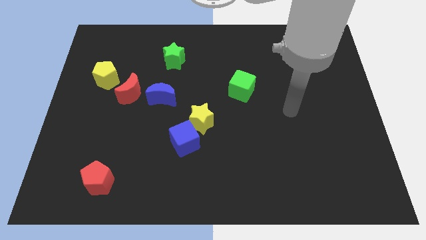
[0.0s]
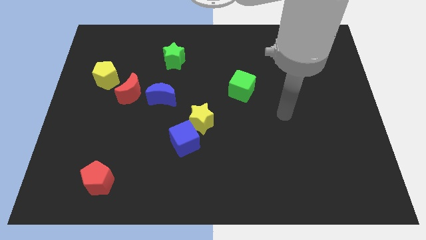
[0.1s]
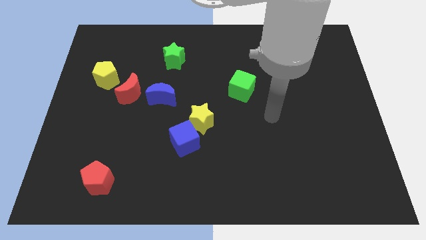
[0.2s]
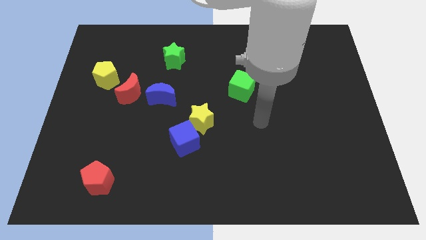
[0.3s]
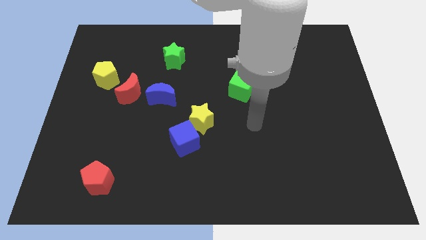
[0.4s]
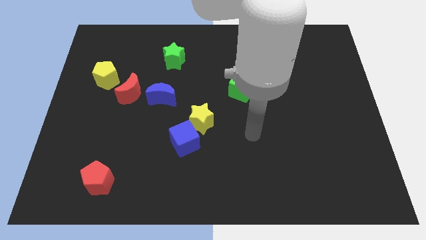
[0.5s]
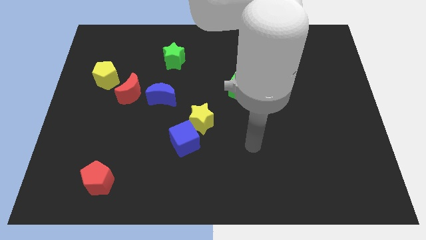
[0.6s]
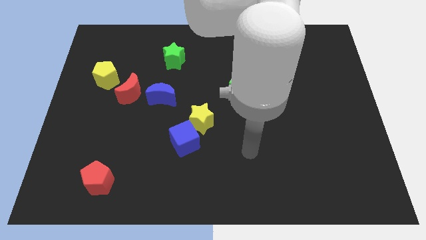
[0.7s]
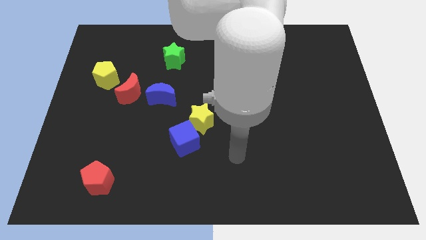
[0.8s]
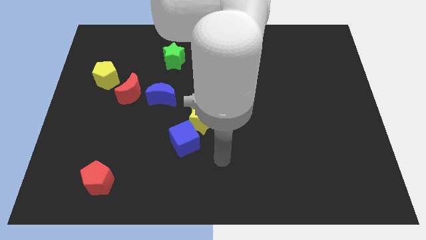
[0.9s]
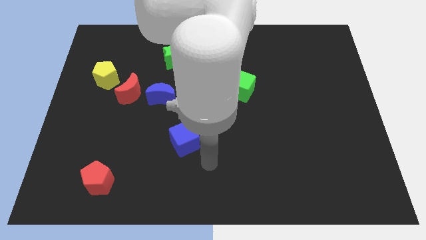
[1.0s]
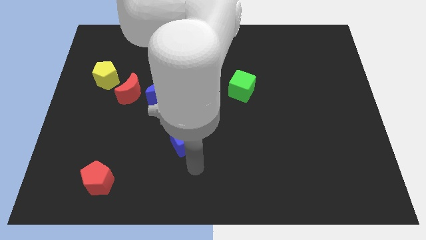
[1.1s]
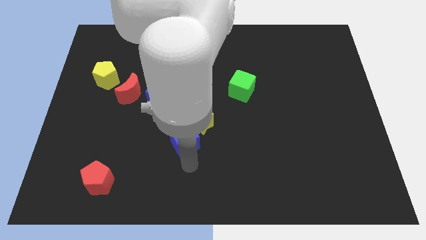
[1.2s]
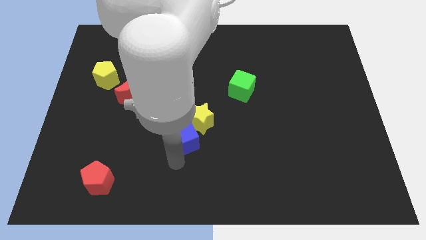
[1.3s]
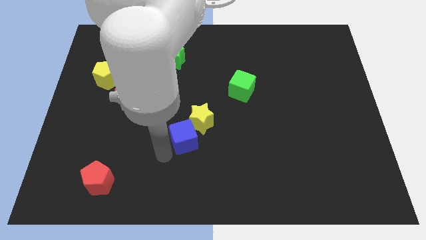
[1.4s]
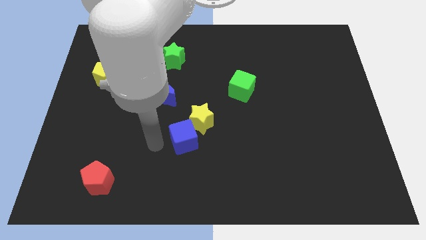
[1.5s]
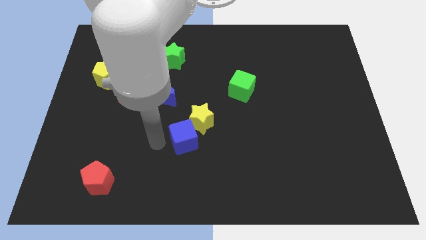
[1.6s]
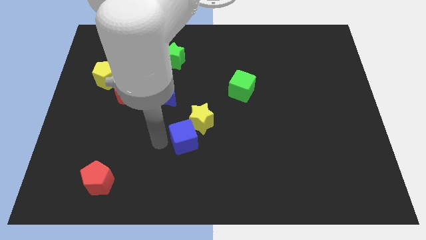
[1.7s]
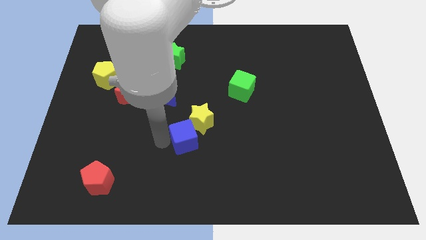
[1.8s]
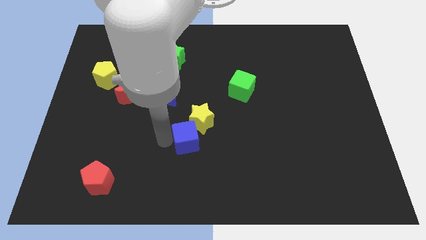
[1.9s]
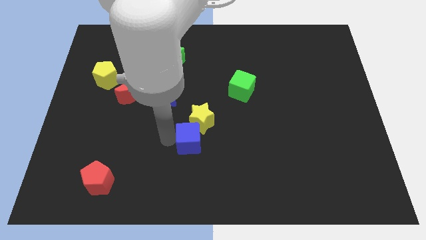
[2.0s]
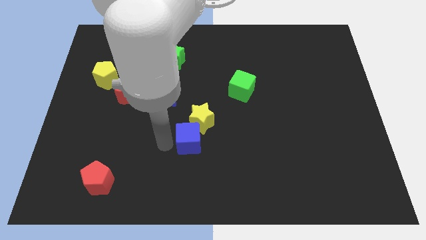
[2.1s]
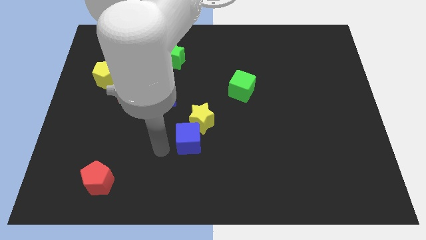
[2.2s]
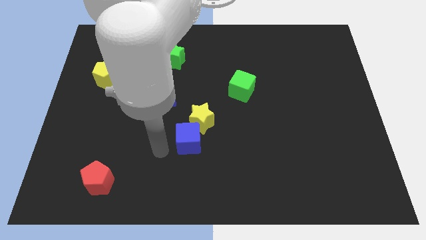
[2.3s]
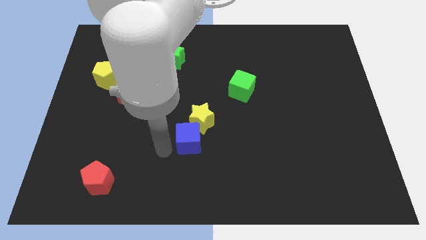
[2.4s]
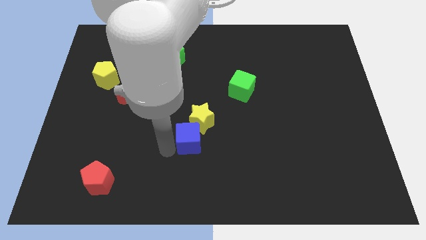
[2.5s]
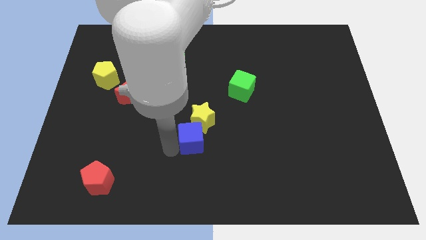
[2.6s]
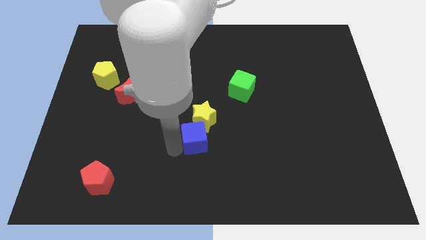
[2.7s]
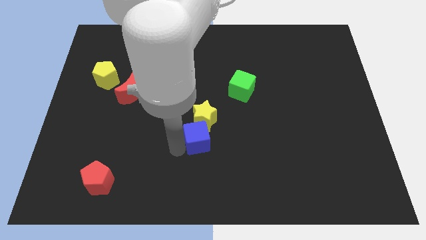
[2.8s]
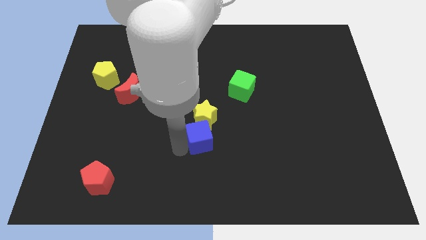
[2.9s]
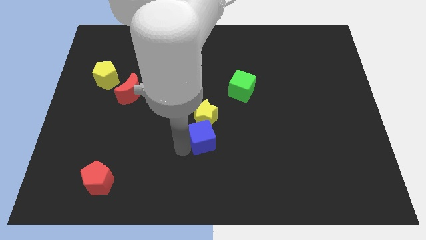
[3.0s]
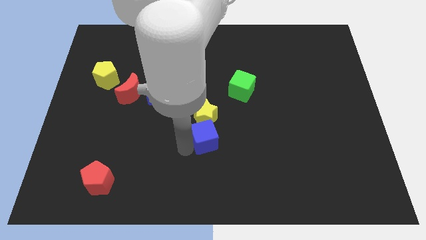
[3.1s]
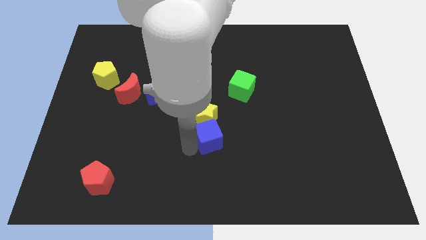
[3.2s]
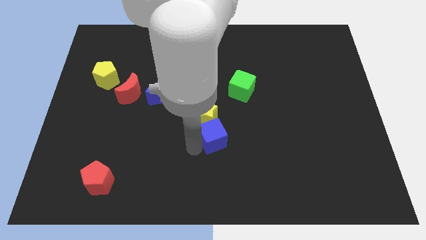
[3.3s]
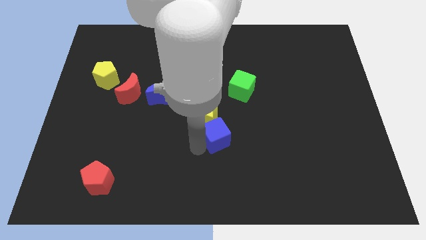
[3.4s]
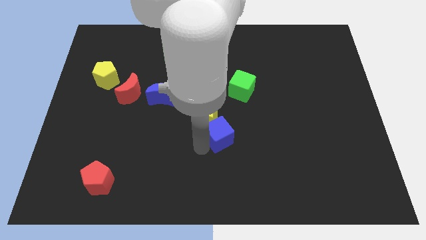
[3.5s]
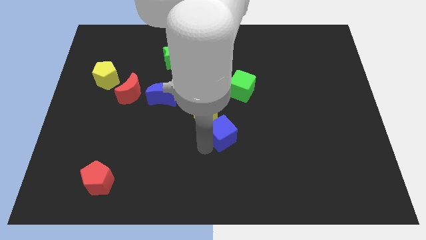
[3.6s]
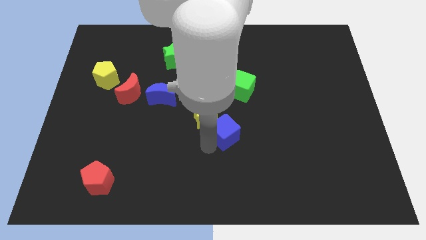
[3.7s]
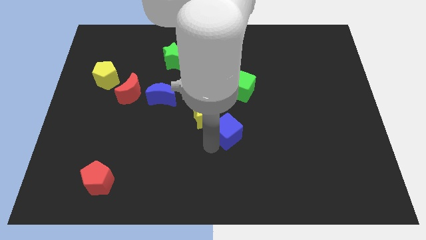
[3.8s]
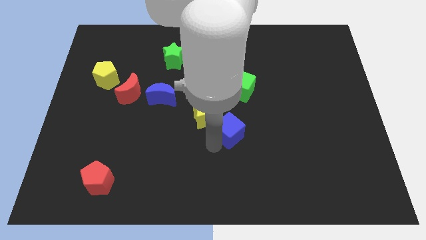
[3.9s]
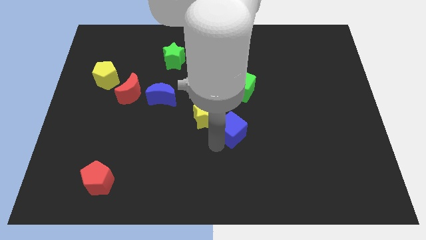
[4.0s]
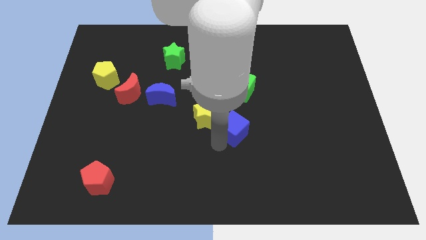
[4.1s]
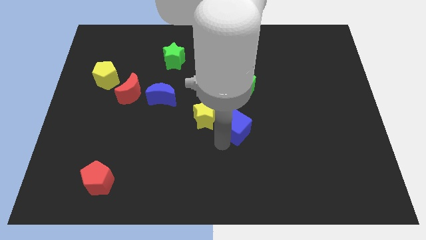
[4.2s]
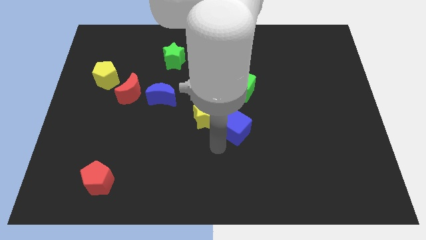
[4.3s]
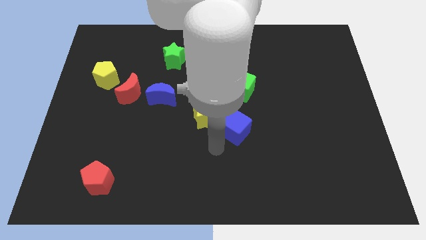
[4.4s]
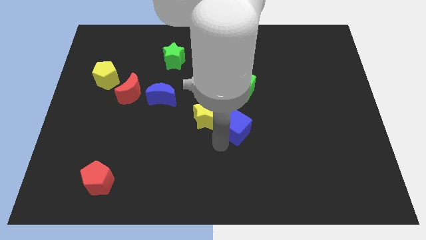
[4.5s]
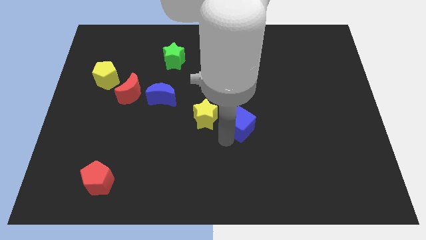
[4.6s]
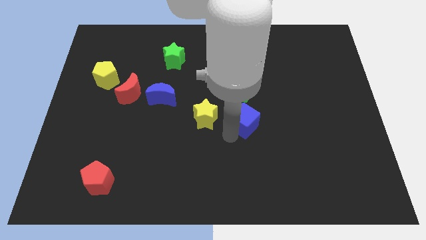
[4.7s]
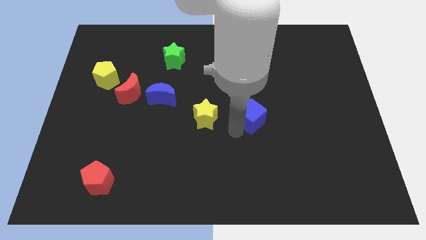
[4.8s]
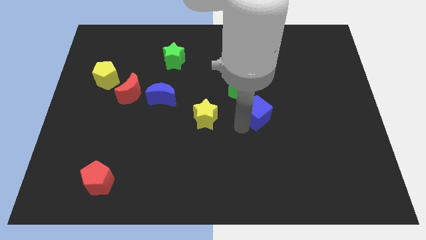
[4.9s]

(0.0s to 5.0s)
slide the blue cube diagonally down and to the right of the green cube

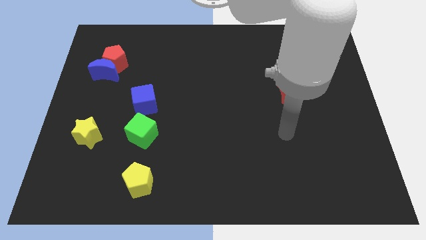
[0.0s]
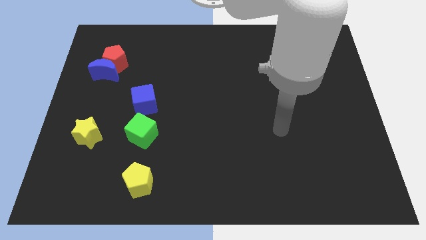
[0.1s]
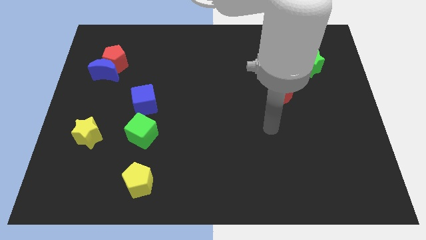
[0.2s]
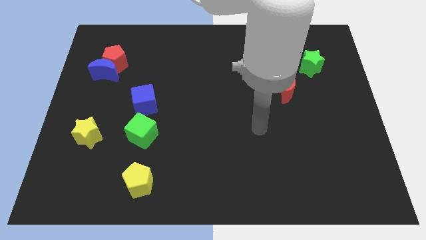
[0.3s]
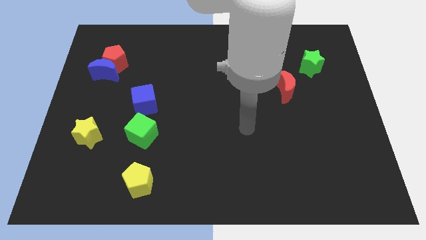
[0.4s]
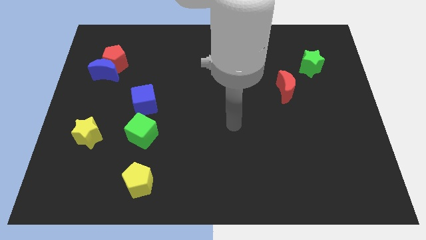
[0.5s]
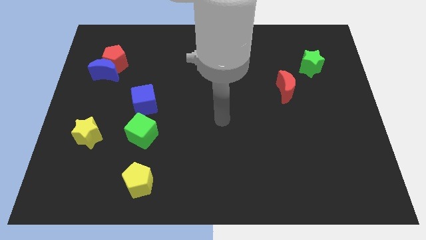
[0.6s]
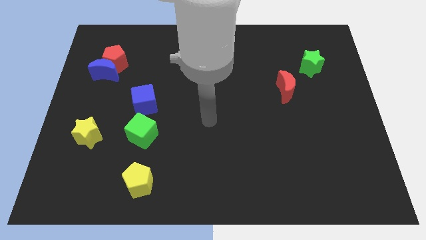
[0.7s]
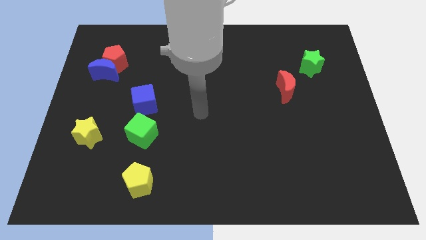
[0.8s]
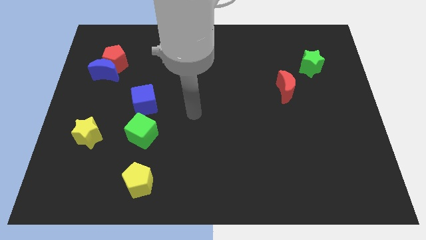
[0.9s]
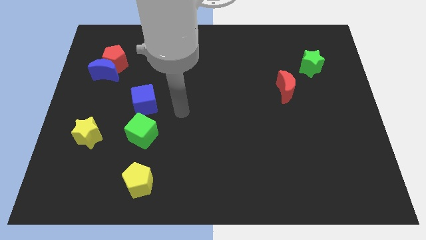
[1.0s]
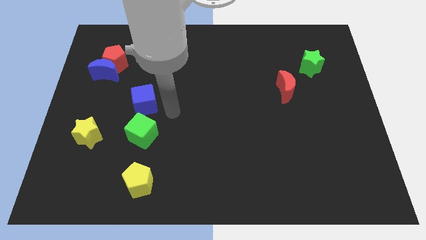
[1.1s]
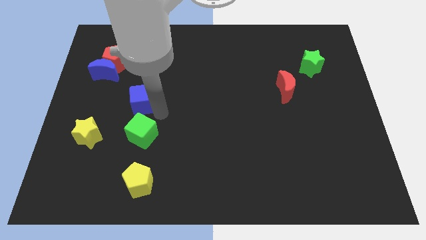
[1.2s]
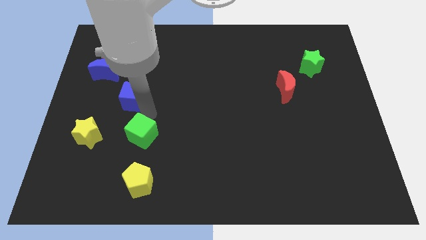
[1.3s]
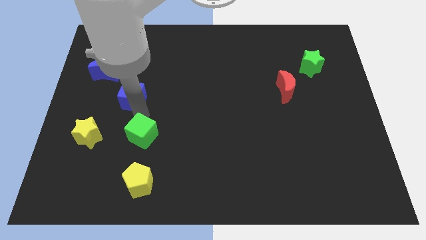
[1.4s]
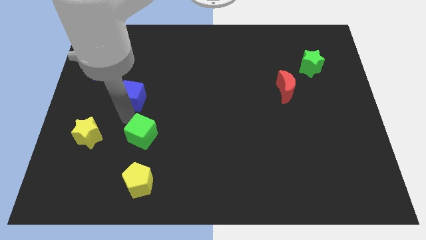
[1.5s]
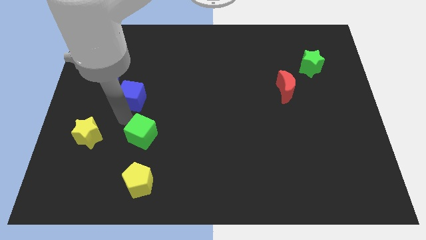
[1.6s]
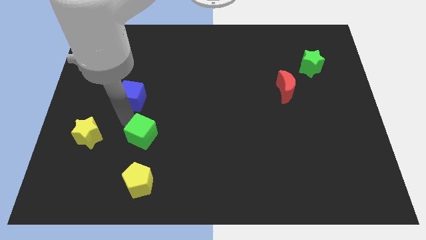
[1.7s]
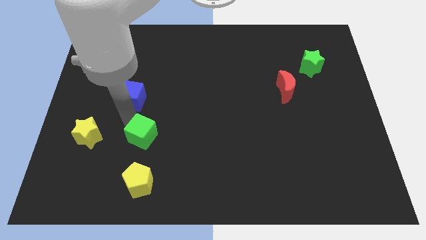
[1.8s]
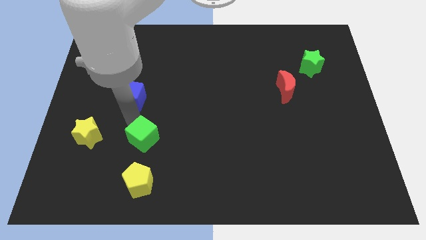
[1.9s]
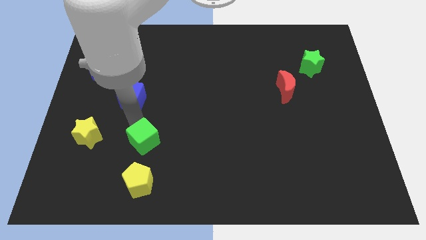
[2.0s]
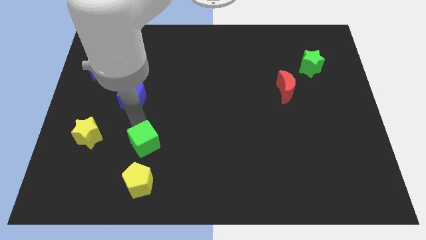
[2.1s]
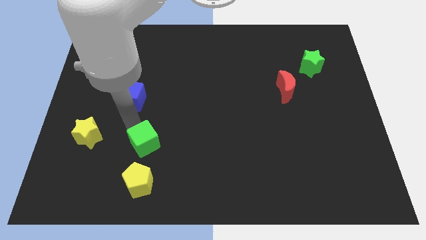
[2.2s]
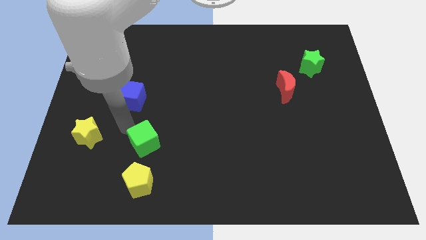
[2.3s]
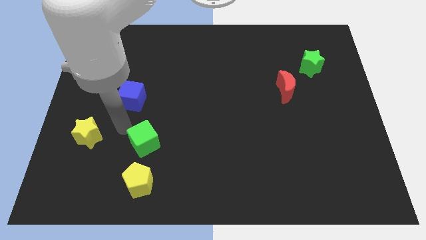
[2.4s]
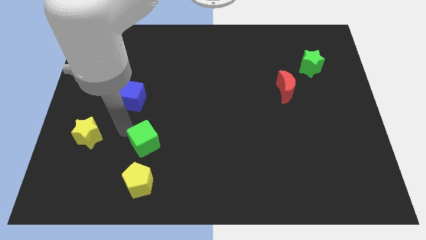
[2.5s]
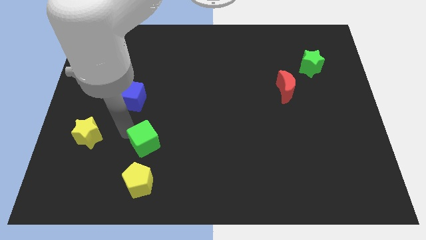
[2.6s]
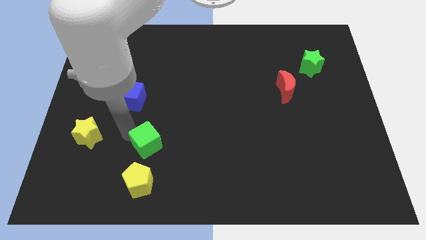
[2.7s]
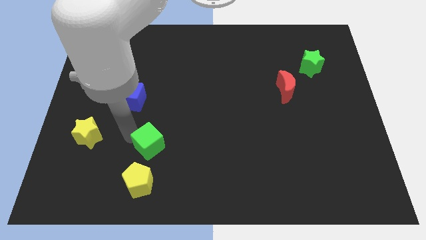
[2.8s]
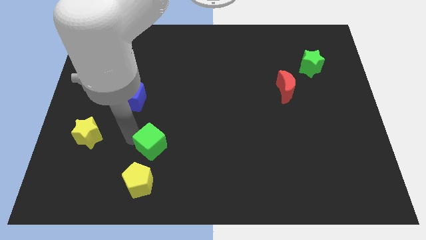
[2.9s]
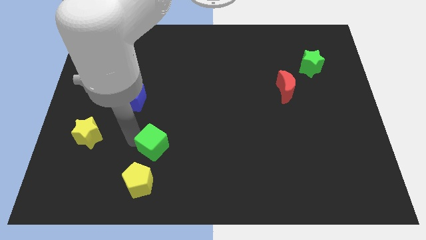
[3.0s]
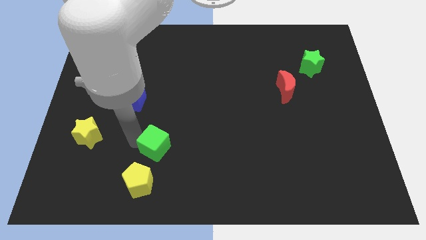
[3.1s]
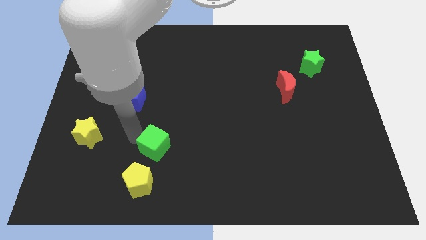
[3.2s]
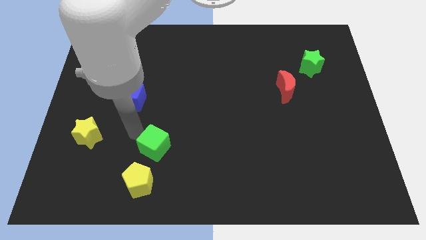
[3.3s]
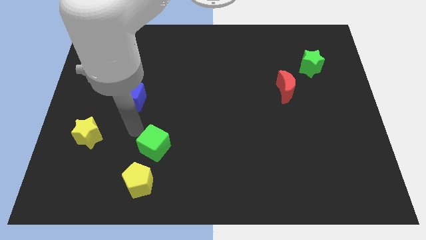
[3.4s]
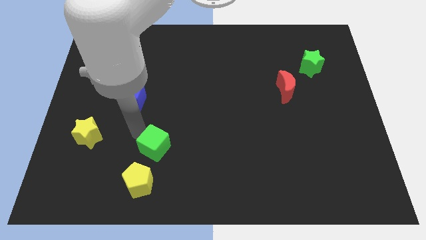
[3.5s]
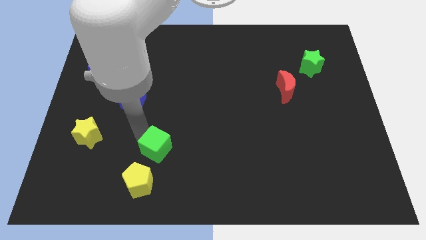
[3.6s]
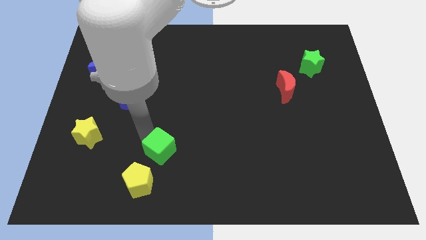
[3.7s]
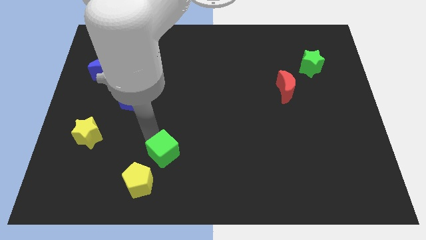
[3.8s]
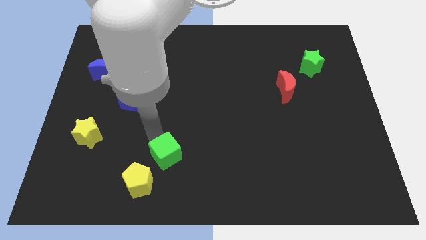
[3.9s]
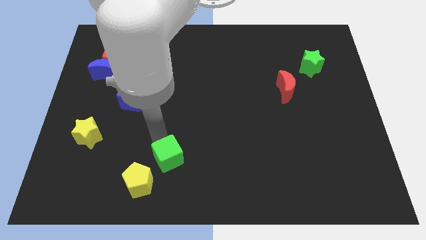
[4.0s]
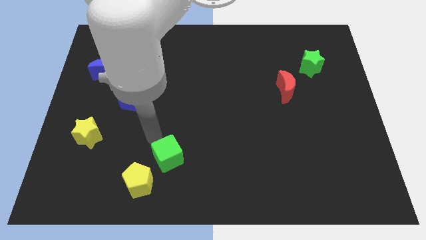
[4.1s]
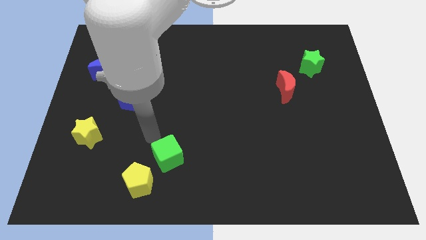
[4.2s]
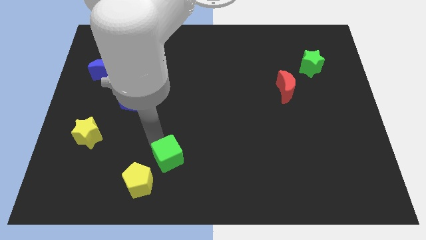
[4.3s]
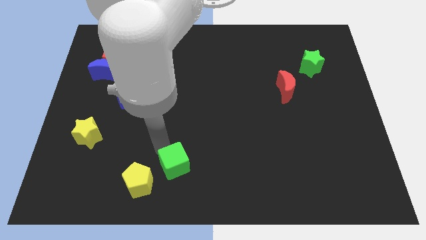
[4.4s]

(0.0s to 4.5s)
put the green cube to the right of the yellow pentagon
